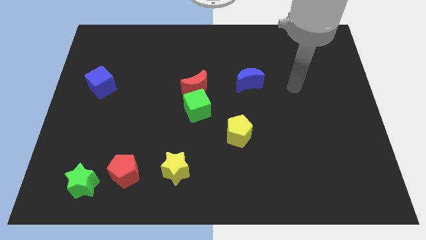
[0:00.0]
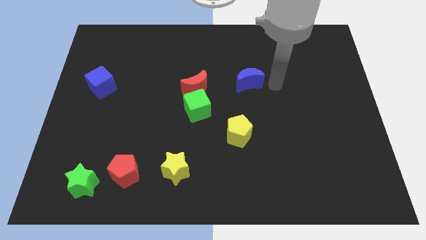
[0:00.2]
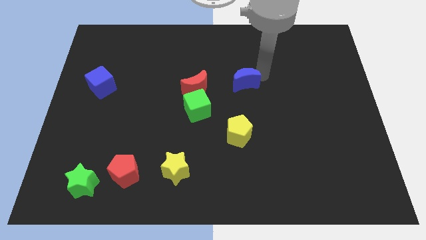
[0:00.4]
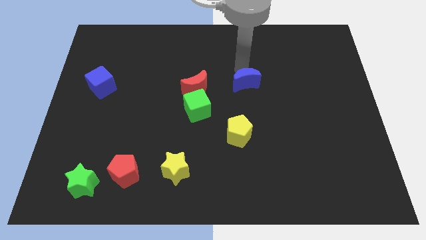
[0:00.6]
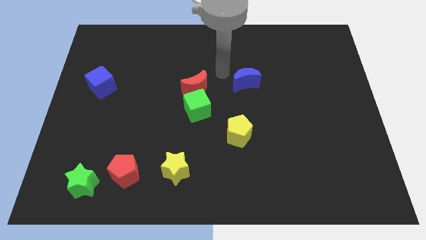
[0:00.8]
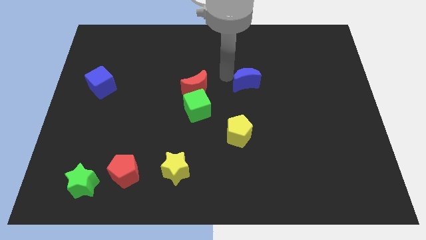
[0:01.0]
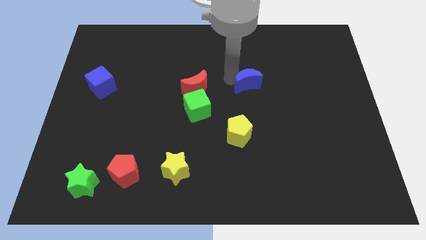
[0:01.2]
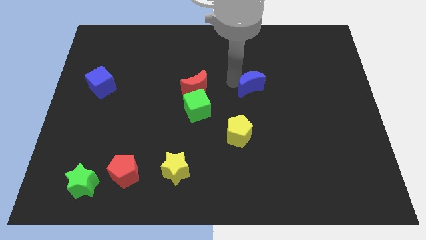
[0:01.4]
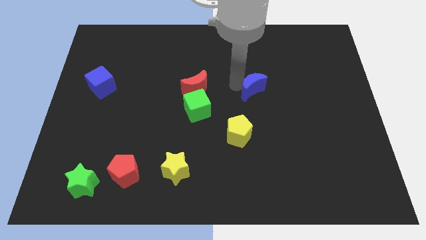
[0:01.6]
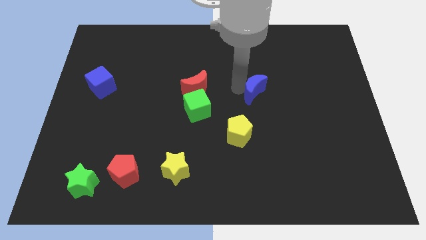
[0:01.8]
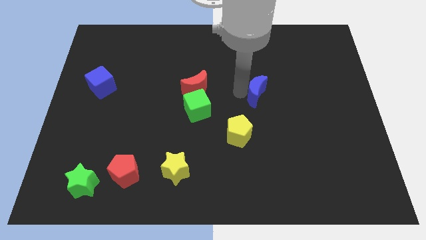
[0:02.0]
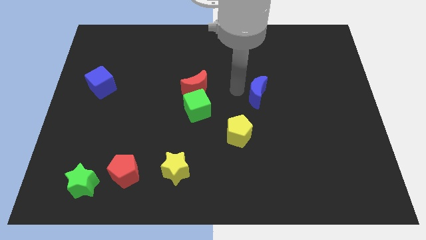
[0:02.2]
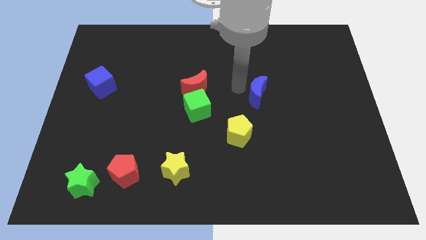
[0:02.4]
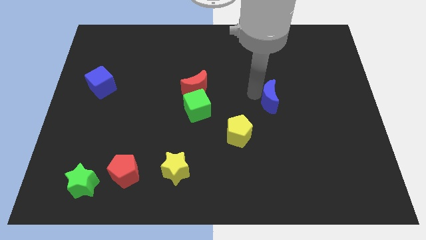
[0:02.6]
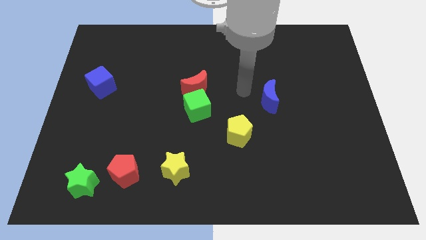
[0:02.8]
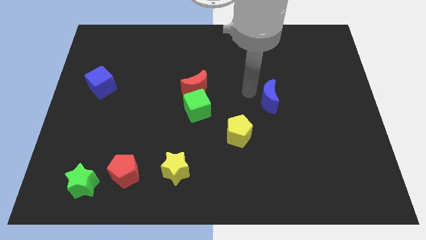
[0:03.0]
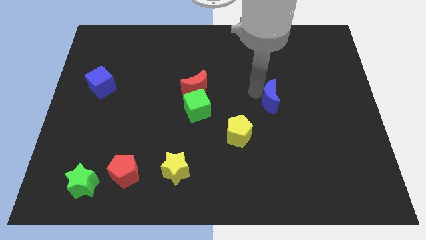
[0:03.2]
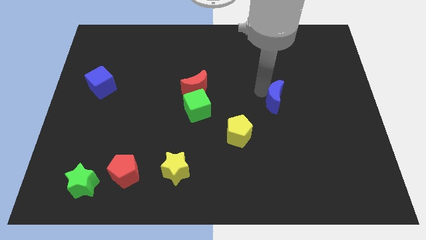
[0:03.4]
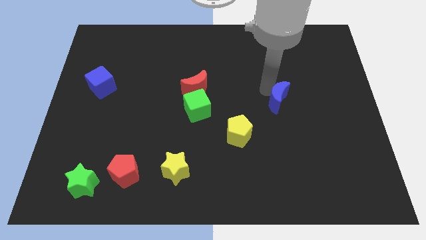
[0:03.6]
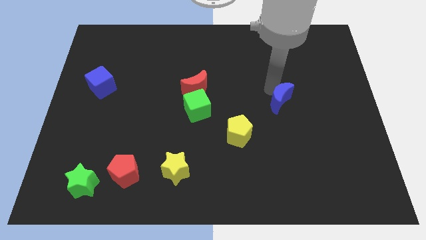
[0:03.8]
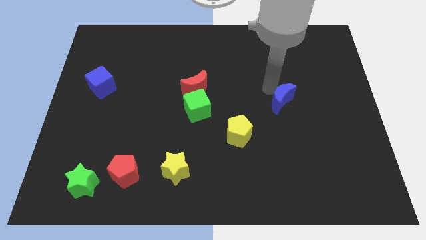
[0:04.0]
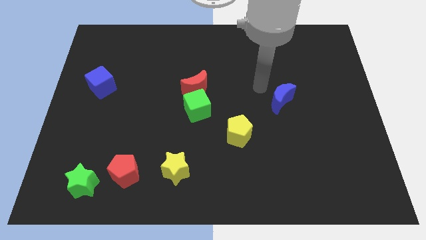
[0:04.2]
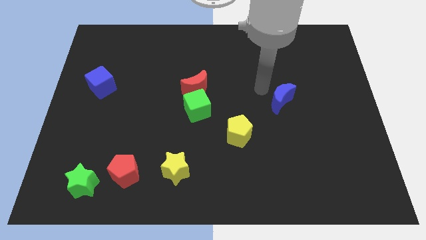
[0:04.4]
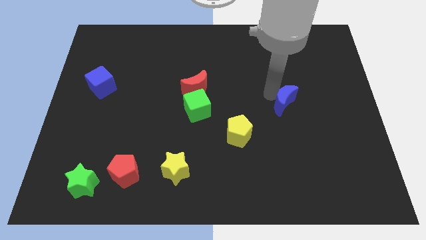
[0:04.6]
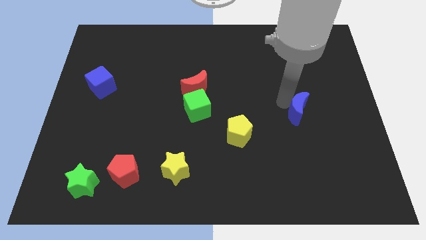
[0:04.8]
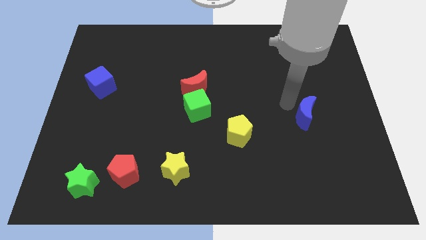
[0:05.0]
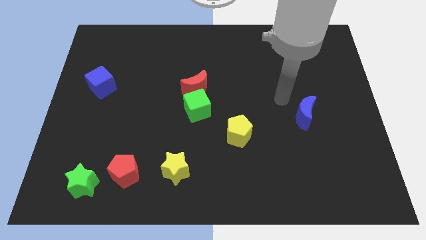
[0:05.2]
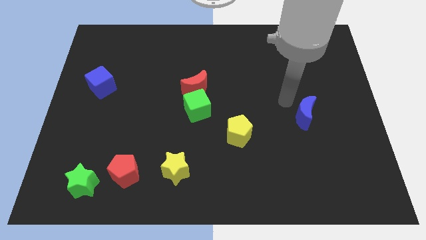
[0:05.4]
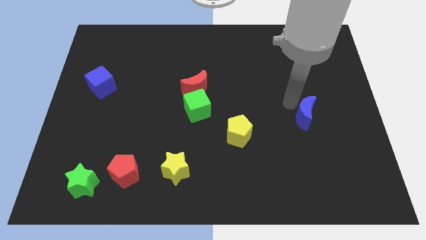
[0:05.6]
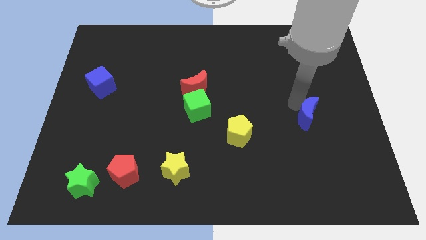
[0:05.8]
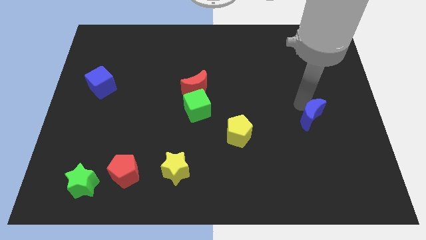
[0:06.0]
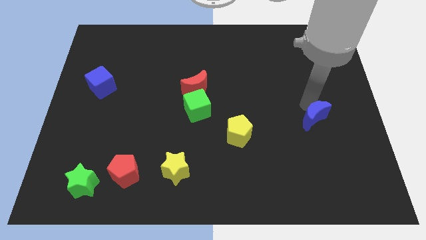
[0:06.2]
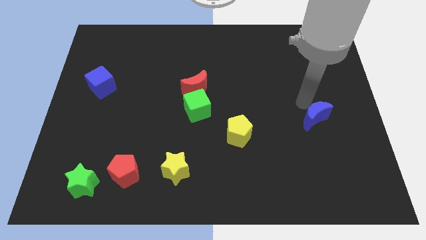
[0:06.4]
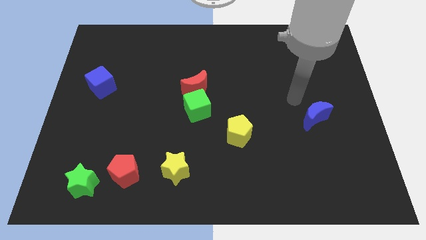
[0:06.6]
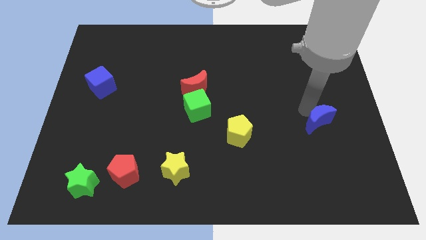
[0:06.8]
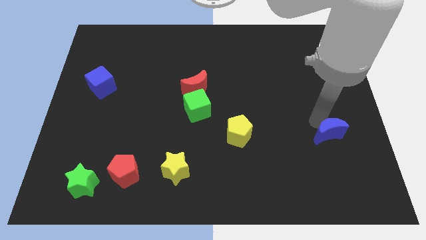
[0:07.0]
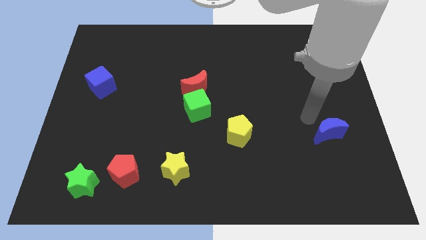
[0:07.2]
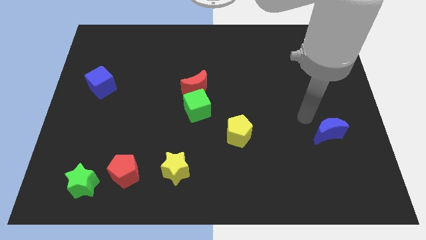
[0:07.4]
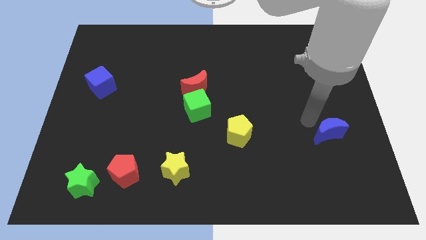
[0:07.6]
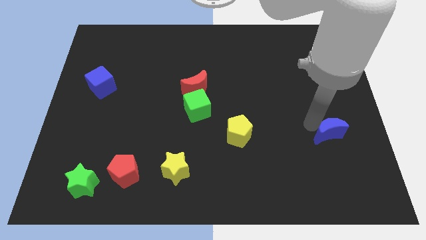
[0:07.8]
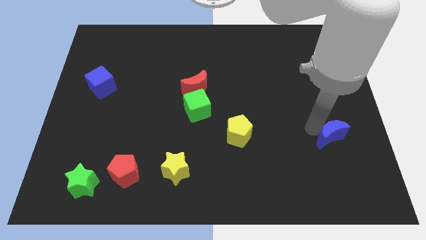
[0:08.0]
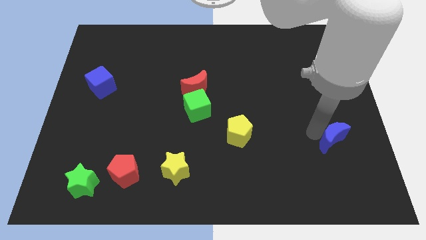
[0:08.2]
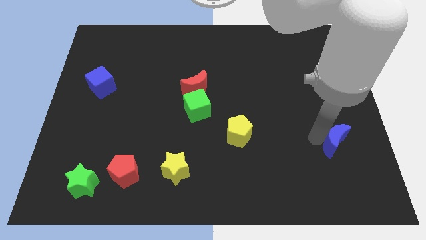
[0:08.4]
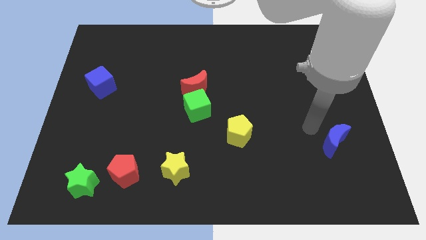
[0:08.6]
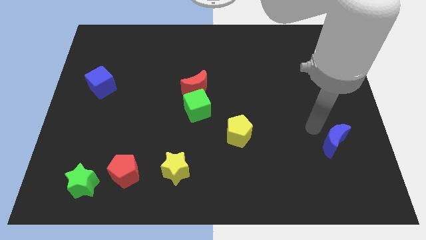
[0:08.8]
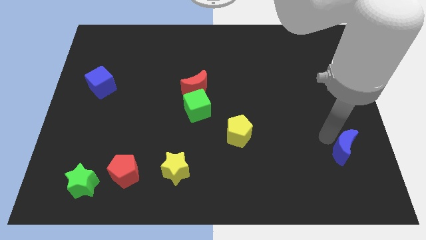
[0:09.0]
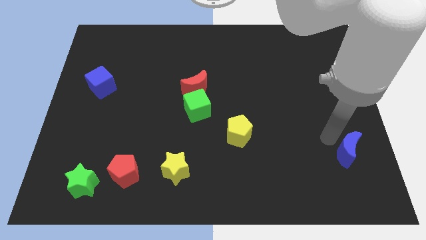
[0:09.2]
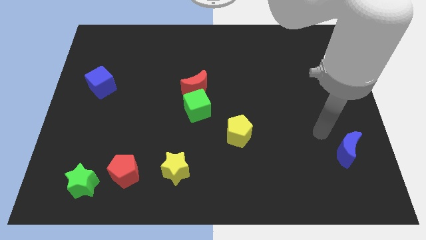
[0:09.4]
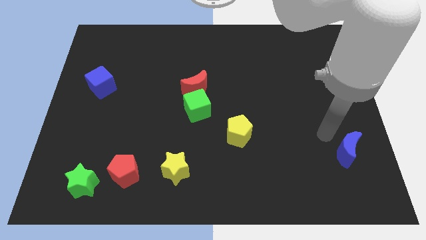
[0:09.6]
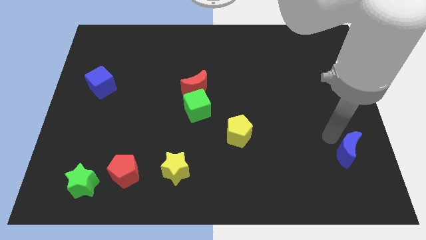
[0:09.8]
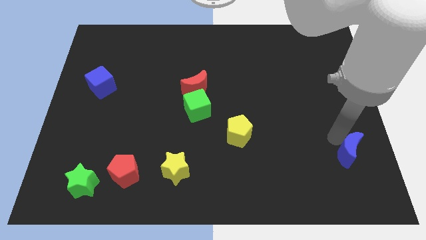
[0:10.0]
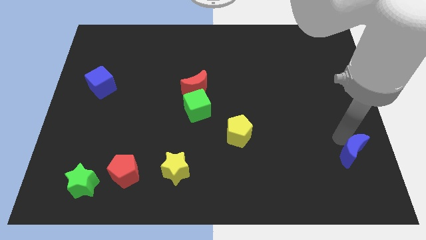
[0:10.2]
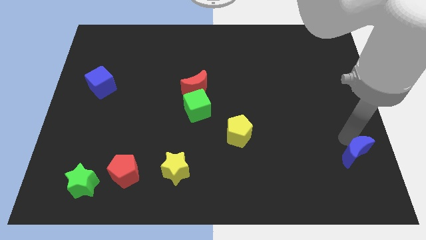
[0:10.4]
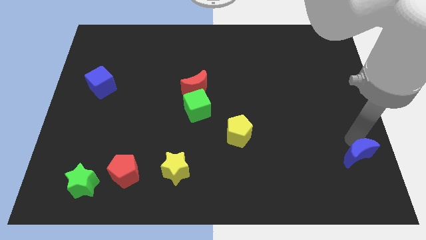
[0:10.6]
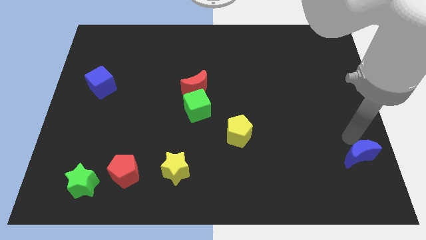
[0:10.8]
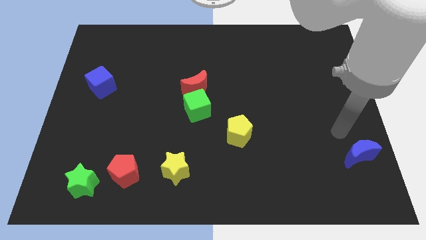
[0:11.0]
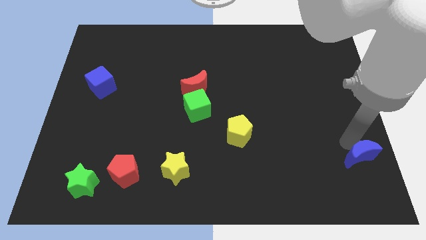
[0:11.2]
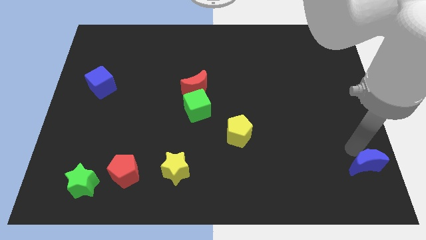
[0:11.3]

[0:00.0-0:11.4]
push the blue moon to the bottom right of the board

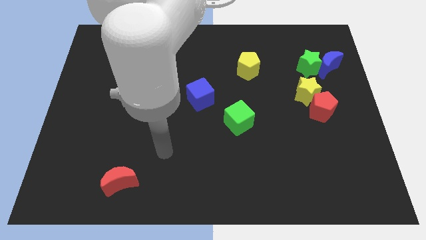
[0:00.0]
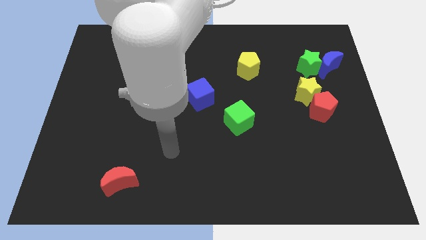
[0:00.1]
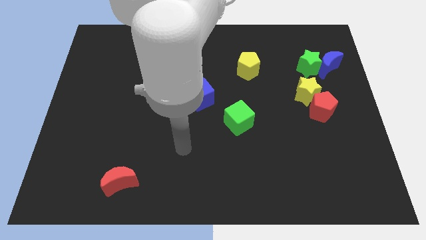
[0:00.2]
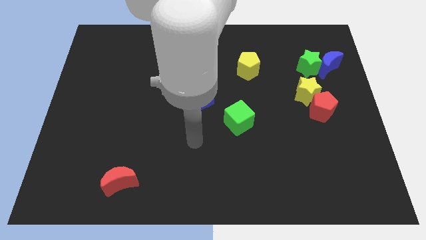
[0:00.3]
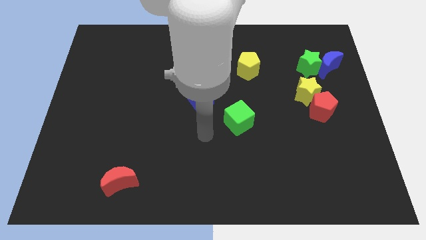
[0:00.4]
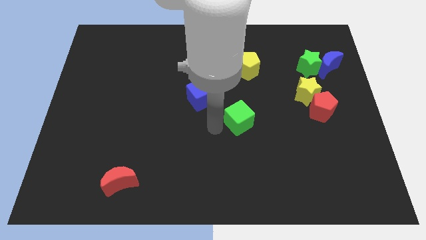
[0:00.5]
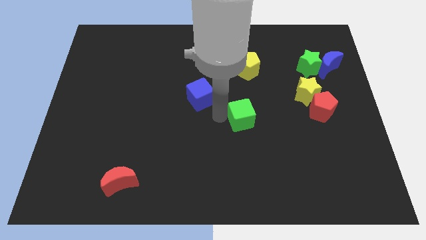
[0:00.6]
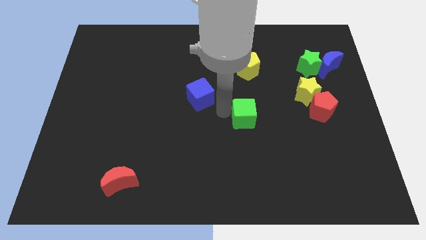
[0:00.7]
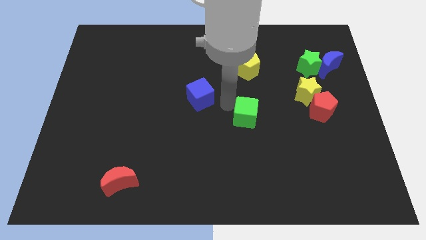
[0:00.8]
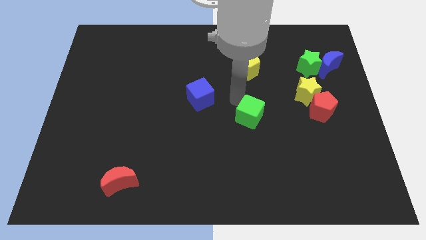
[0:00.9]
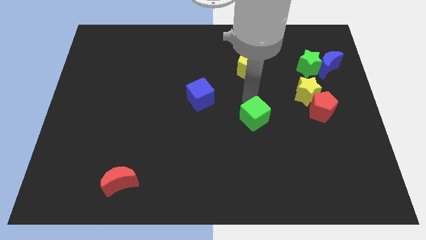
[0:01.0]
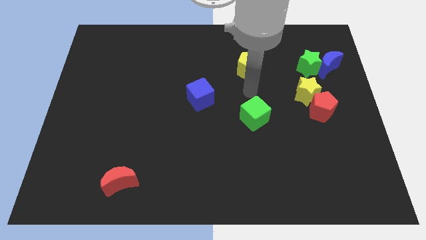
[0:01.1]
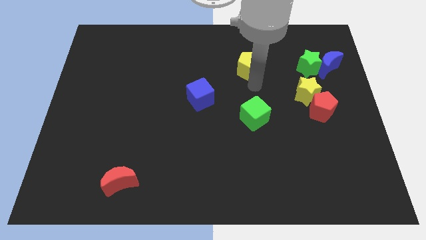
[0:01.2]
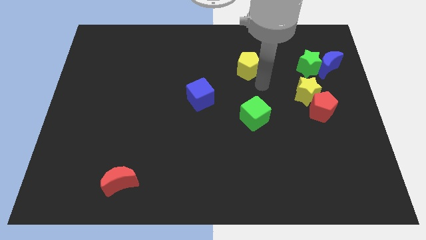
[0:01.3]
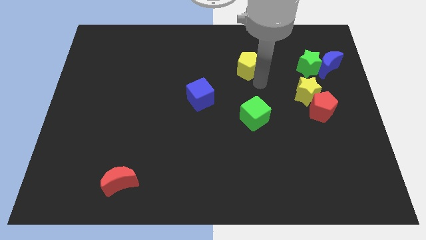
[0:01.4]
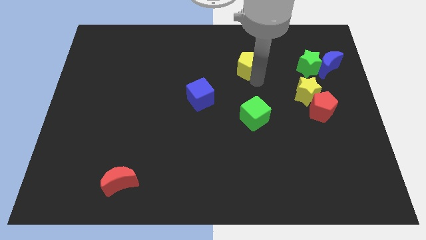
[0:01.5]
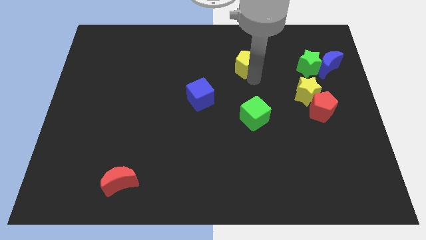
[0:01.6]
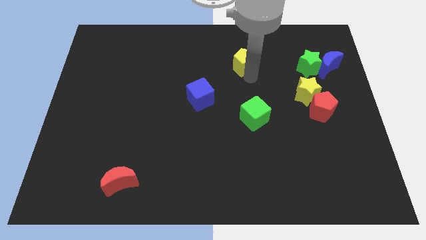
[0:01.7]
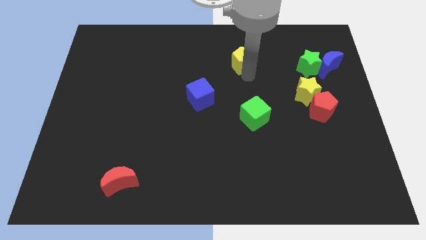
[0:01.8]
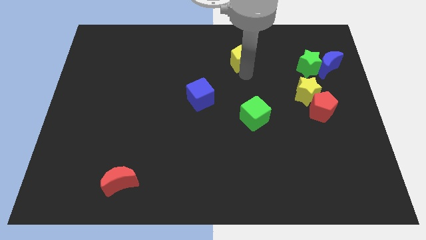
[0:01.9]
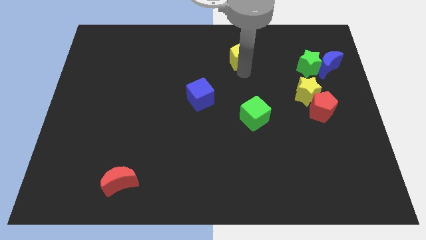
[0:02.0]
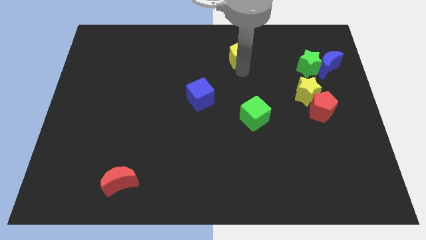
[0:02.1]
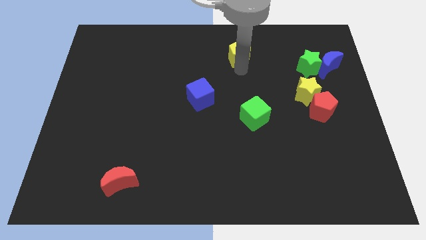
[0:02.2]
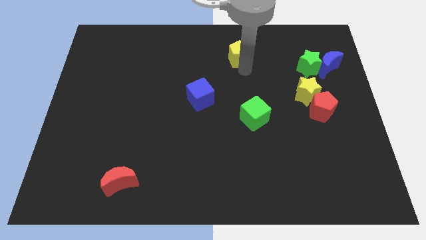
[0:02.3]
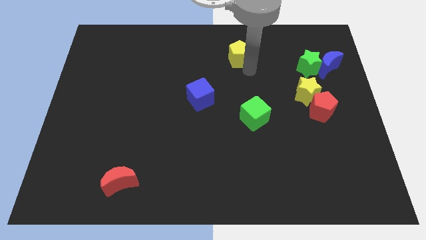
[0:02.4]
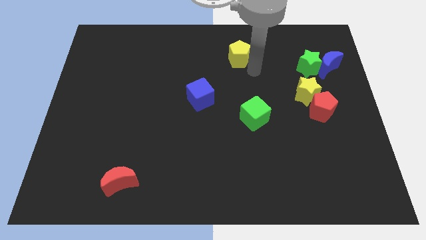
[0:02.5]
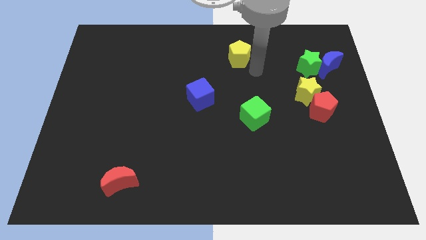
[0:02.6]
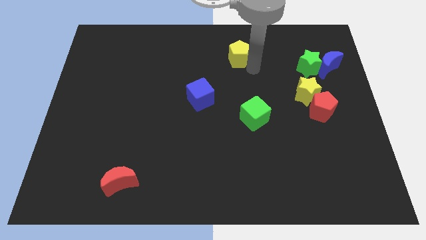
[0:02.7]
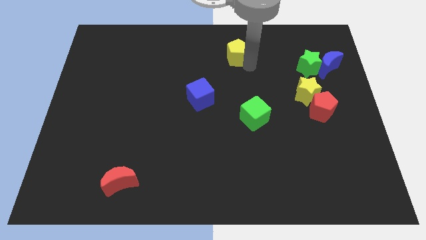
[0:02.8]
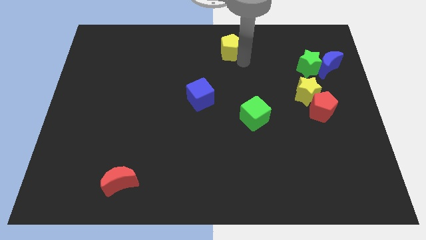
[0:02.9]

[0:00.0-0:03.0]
push the yellow pentagon to the top
